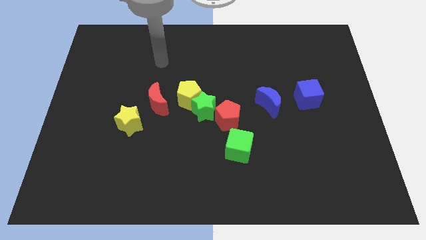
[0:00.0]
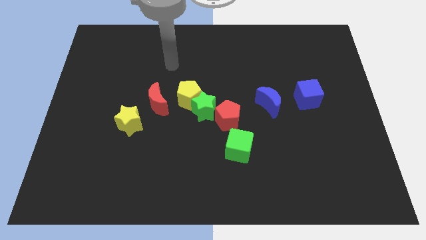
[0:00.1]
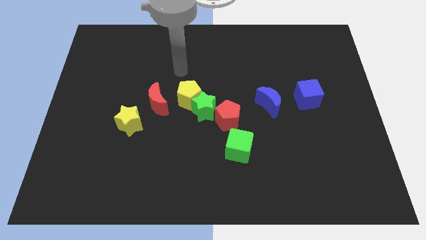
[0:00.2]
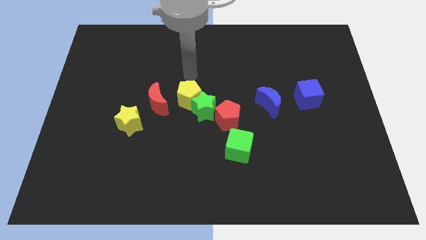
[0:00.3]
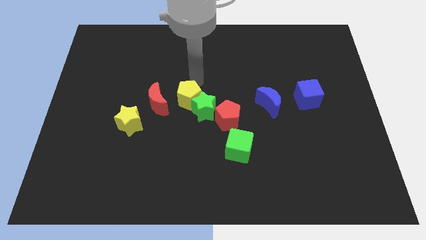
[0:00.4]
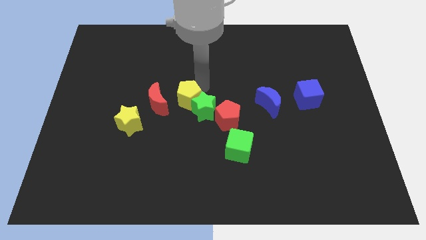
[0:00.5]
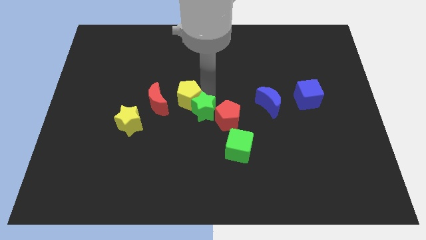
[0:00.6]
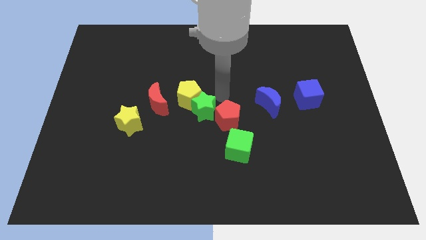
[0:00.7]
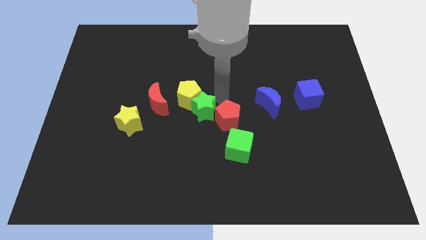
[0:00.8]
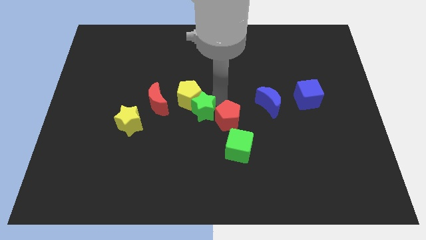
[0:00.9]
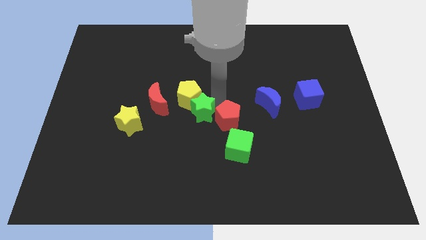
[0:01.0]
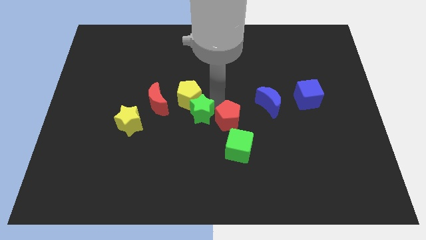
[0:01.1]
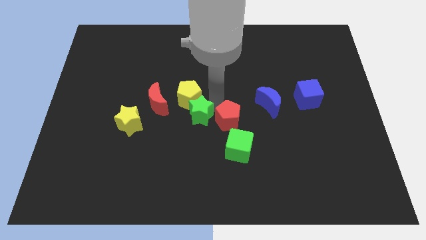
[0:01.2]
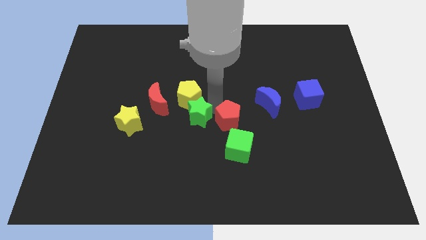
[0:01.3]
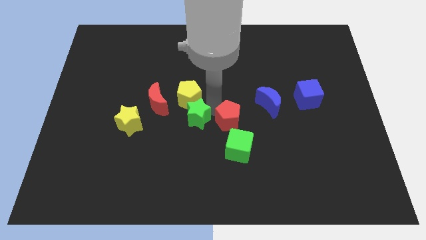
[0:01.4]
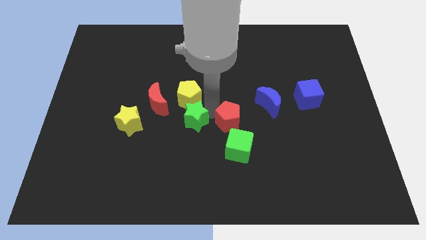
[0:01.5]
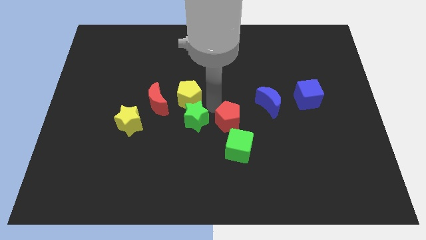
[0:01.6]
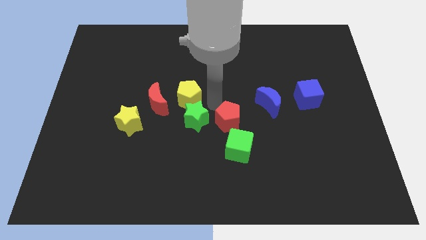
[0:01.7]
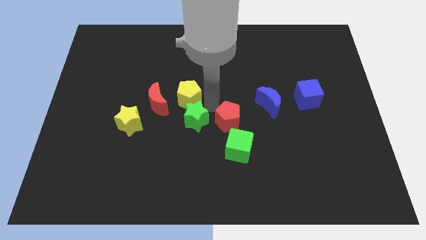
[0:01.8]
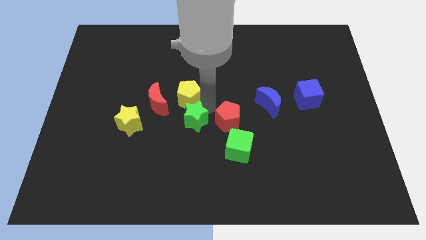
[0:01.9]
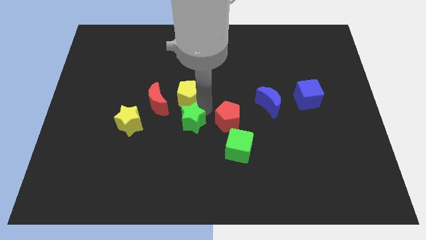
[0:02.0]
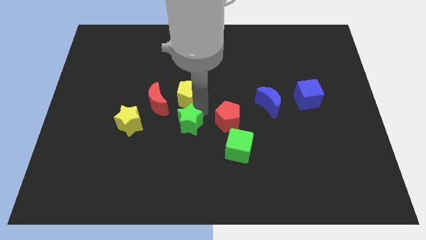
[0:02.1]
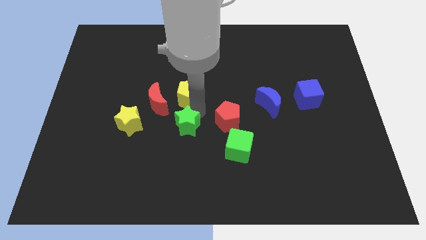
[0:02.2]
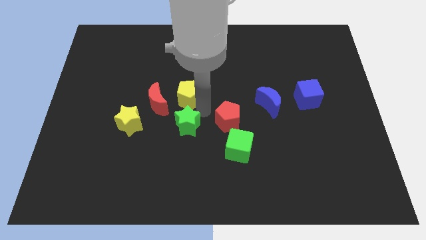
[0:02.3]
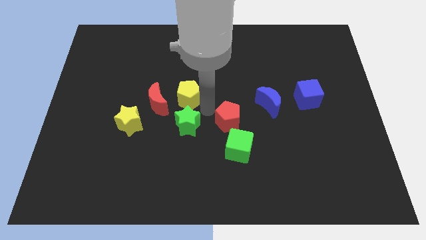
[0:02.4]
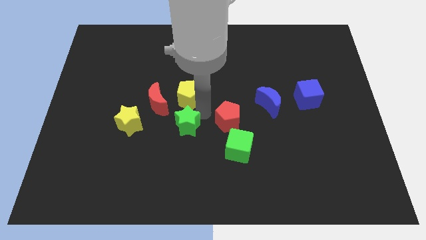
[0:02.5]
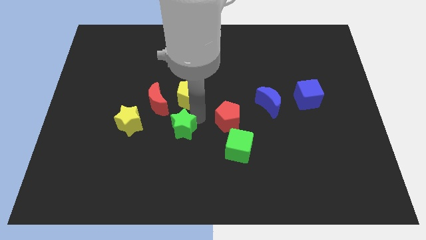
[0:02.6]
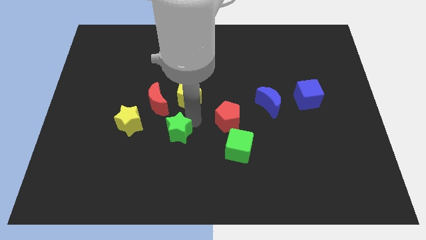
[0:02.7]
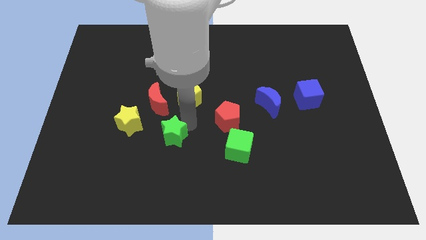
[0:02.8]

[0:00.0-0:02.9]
move the green star away from the yellow pentagon and red pentagon

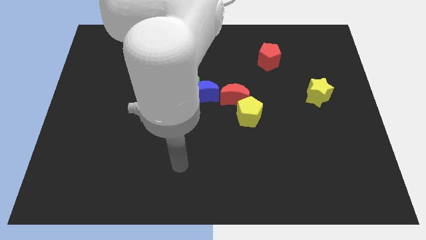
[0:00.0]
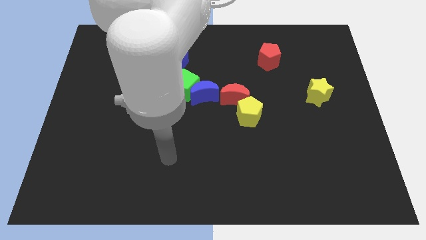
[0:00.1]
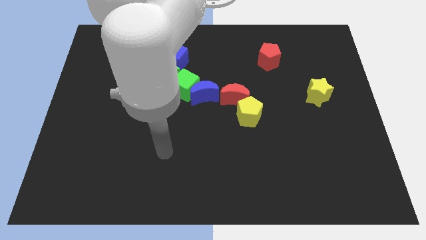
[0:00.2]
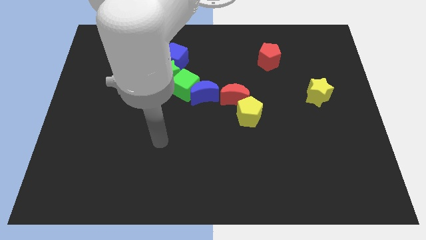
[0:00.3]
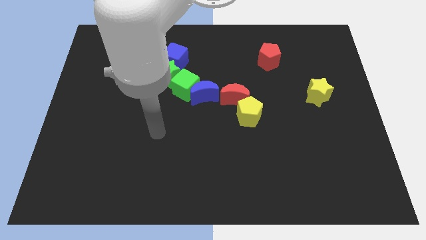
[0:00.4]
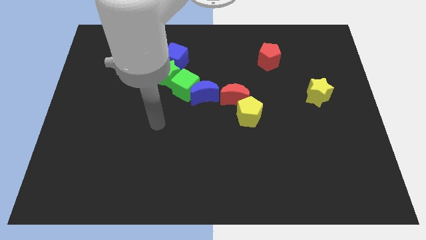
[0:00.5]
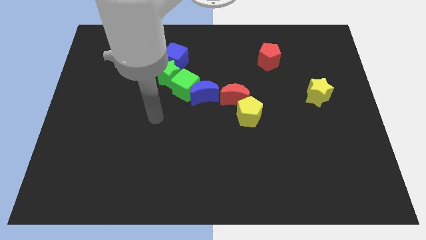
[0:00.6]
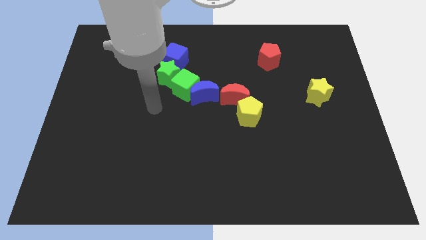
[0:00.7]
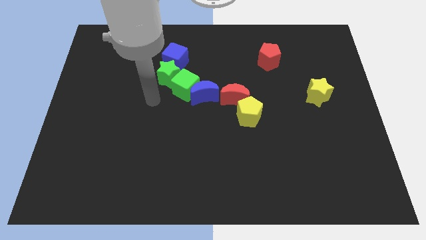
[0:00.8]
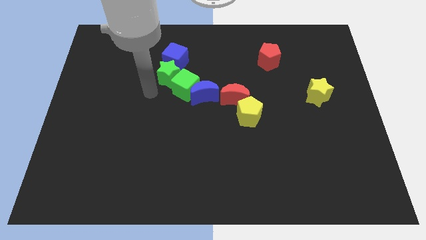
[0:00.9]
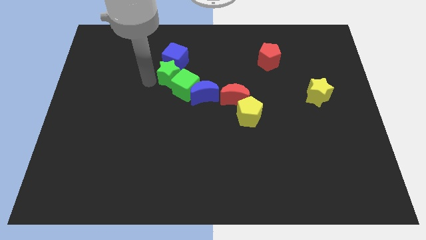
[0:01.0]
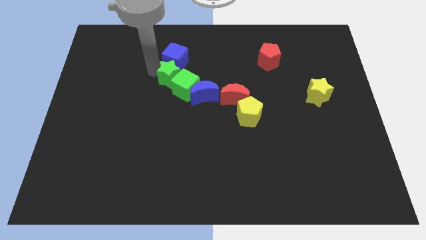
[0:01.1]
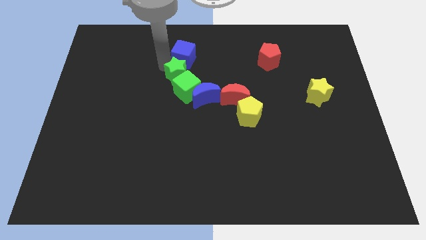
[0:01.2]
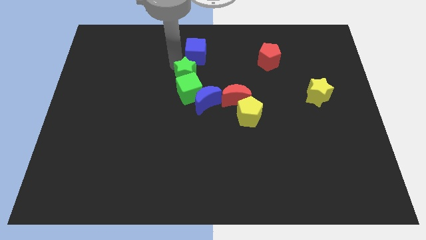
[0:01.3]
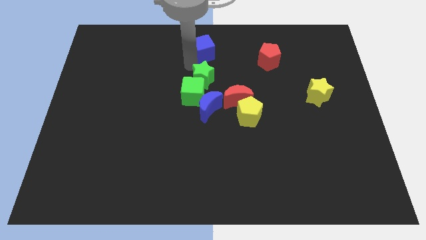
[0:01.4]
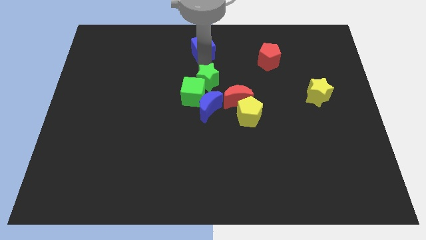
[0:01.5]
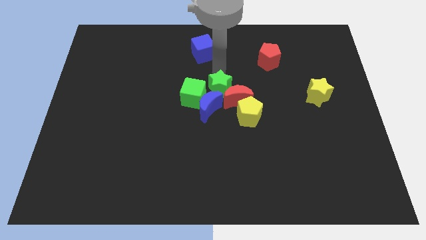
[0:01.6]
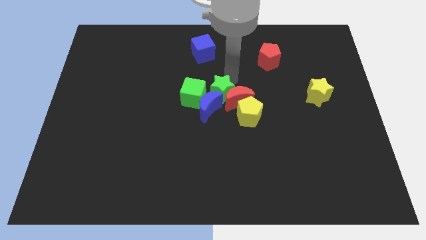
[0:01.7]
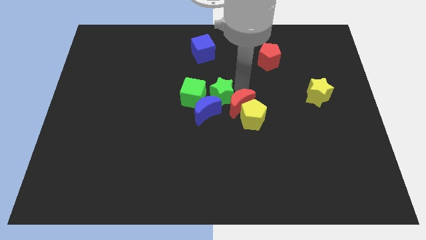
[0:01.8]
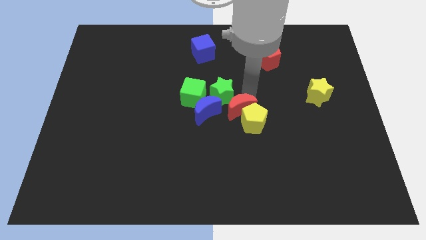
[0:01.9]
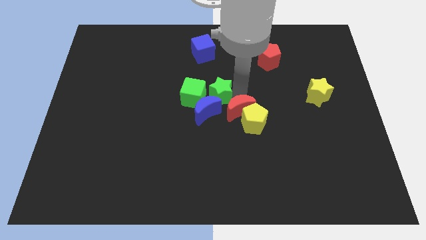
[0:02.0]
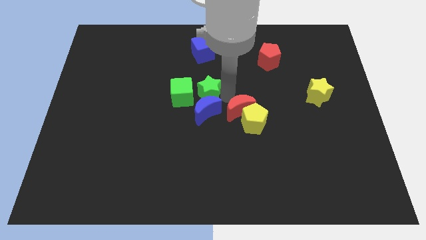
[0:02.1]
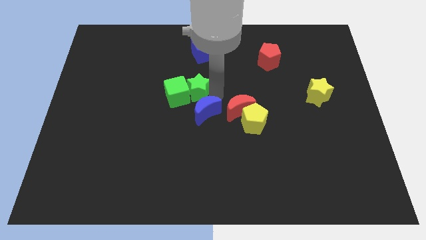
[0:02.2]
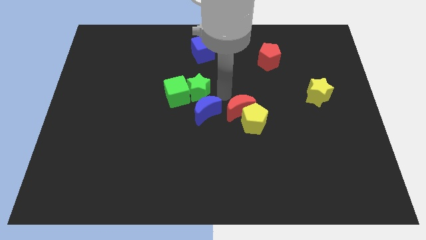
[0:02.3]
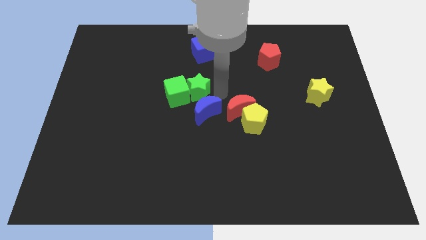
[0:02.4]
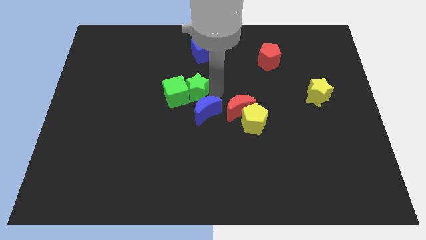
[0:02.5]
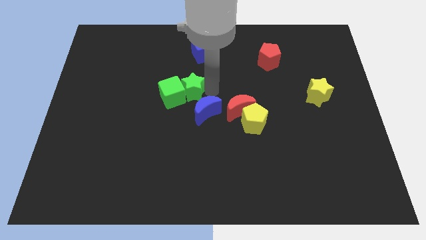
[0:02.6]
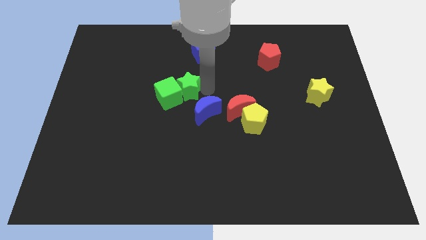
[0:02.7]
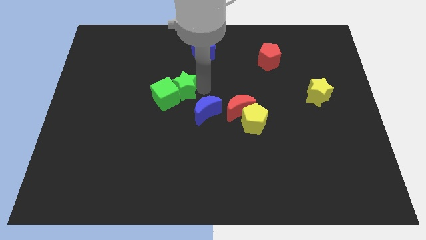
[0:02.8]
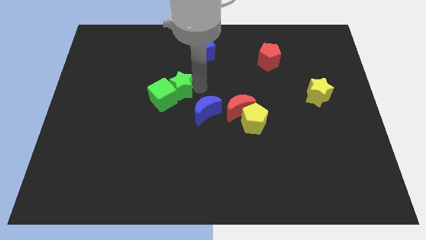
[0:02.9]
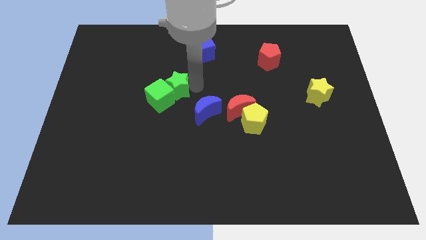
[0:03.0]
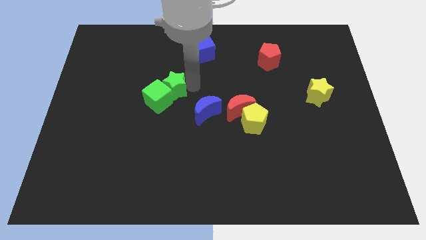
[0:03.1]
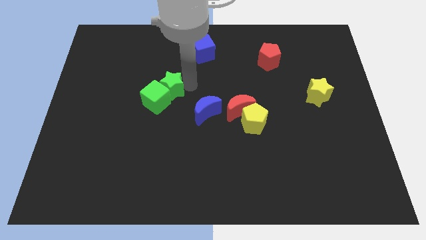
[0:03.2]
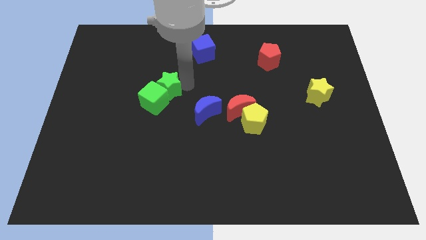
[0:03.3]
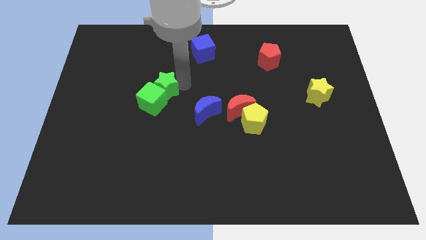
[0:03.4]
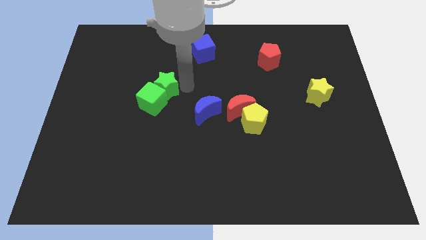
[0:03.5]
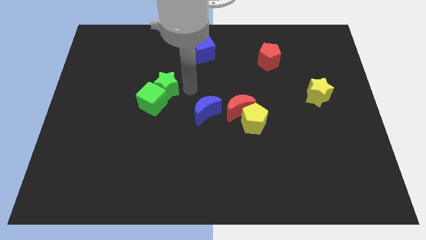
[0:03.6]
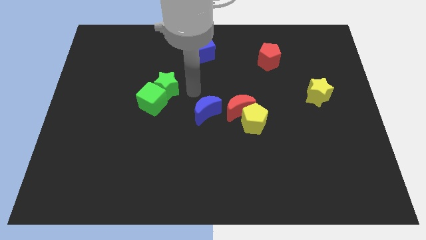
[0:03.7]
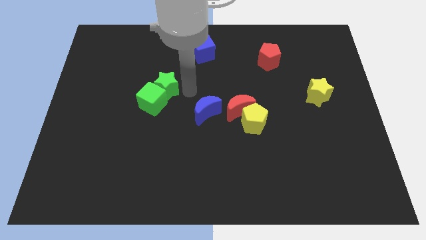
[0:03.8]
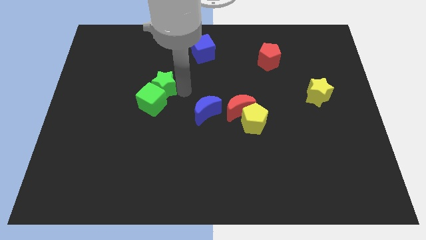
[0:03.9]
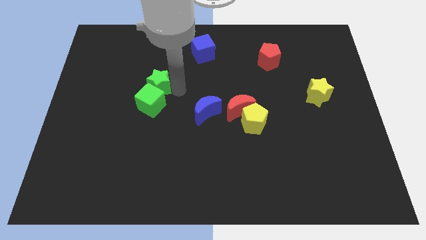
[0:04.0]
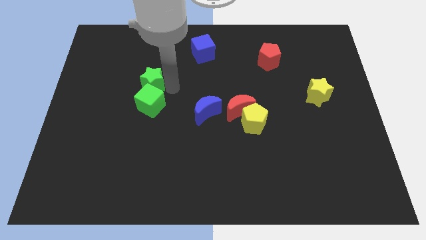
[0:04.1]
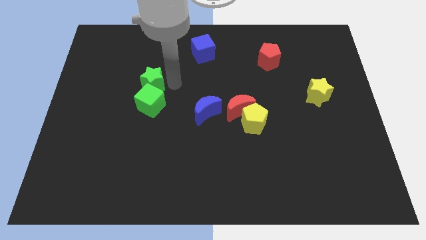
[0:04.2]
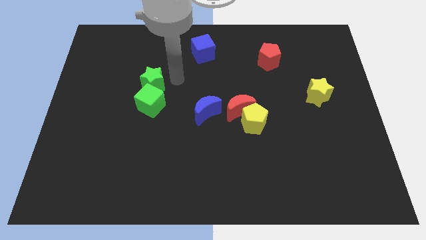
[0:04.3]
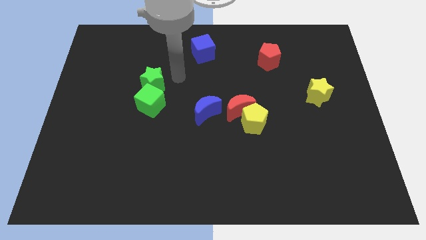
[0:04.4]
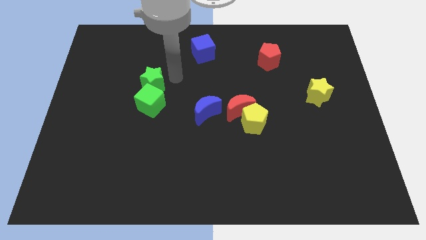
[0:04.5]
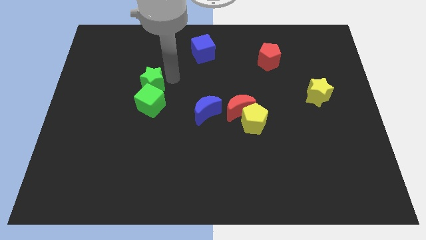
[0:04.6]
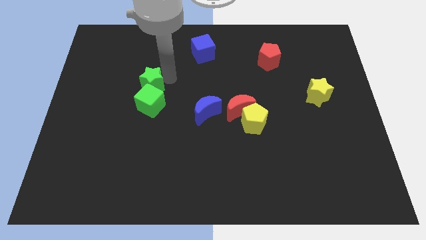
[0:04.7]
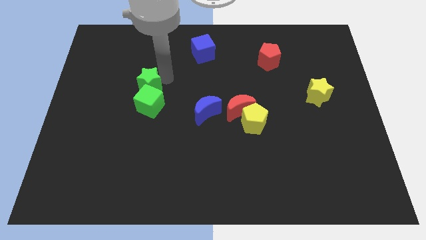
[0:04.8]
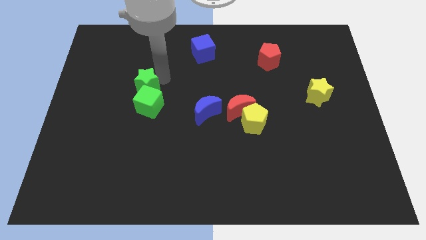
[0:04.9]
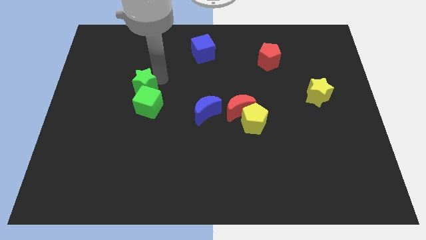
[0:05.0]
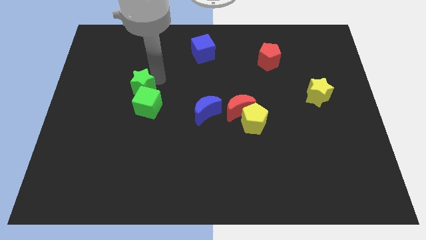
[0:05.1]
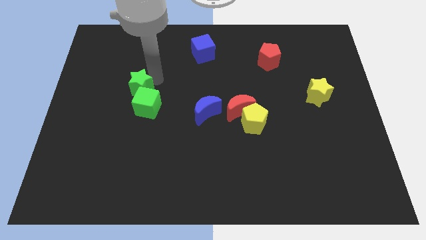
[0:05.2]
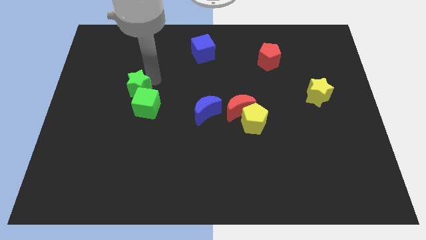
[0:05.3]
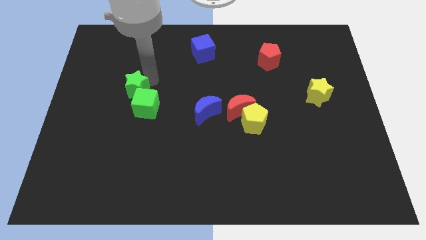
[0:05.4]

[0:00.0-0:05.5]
move the green star away from the blue cube and green cube

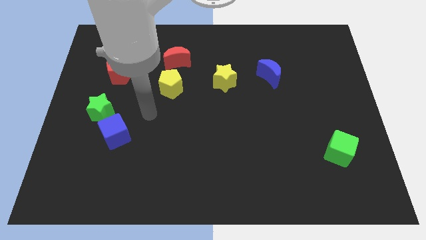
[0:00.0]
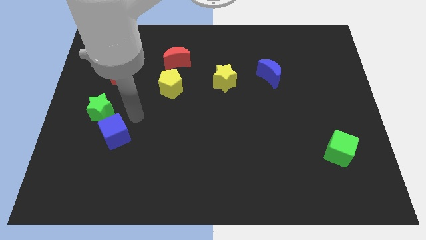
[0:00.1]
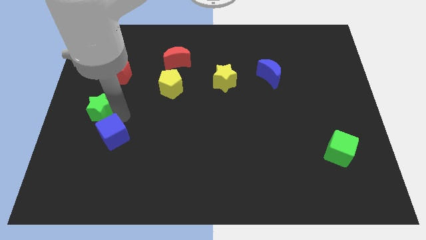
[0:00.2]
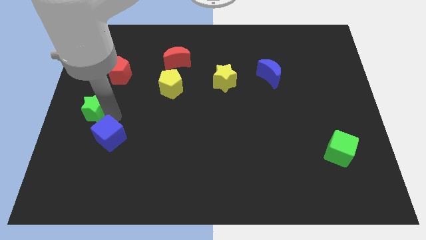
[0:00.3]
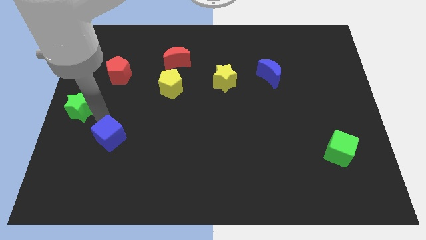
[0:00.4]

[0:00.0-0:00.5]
move the blue cube away from the green star

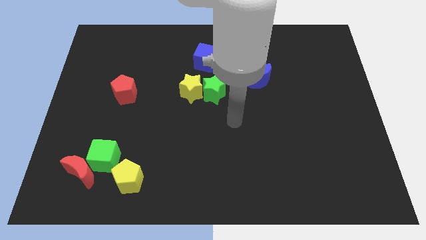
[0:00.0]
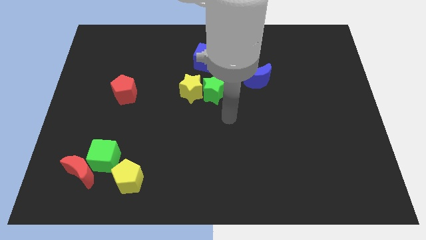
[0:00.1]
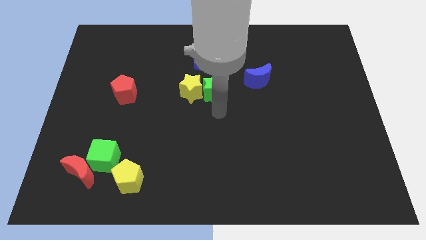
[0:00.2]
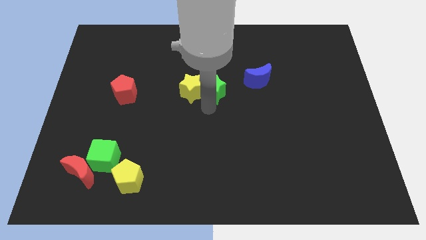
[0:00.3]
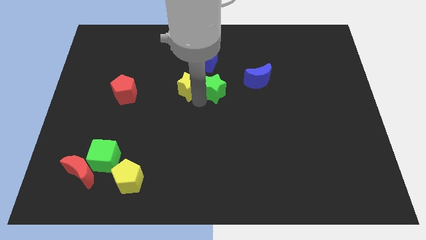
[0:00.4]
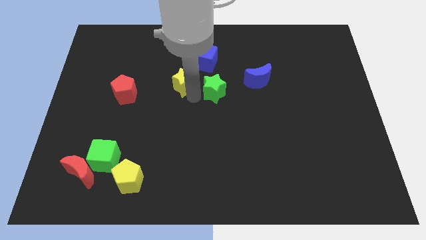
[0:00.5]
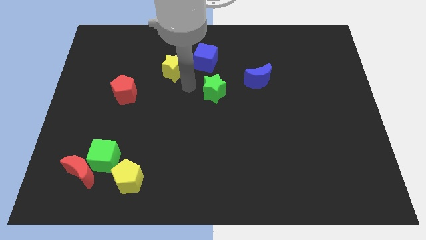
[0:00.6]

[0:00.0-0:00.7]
separate the green star from the yellow star
